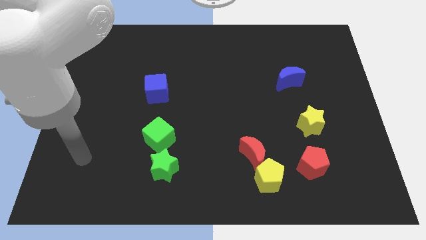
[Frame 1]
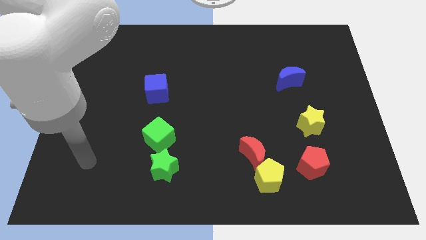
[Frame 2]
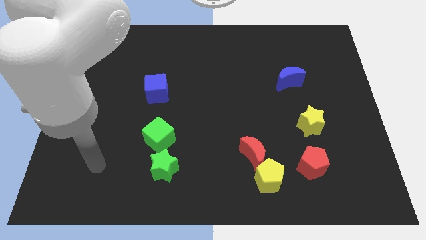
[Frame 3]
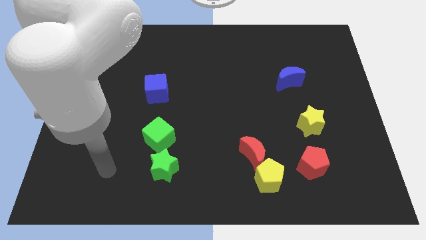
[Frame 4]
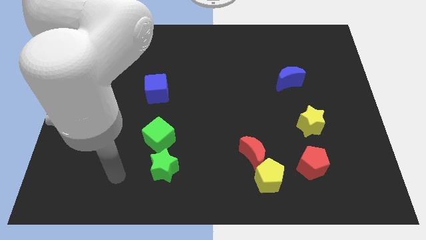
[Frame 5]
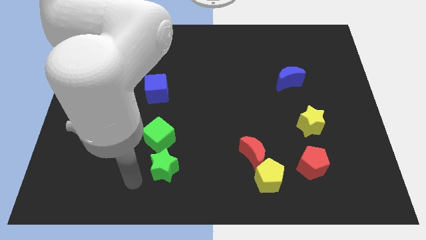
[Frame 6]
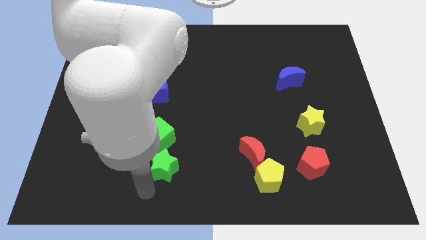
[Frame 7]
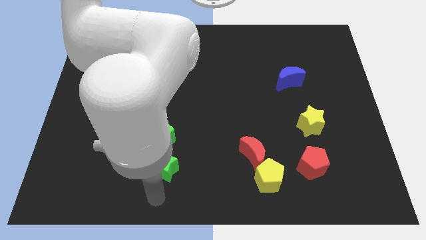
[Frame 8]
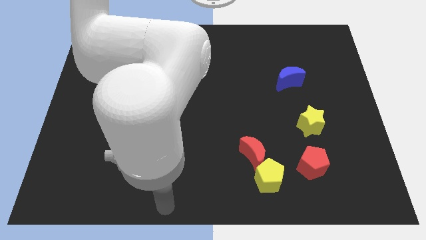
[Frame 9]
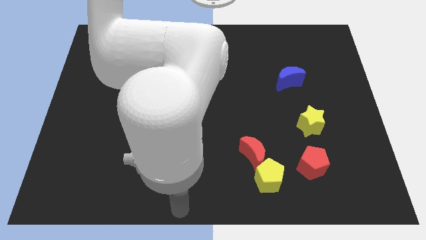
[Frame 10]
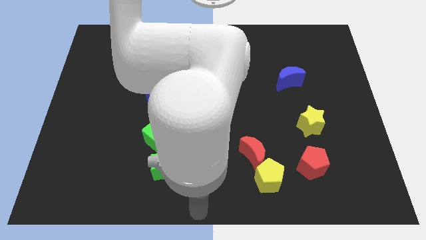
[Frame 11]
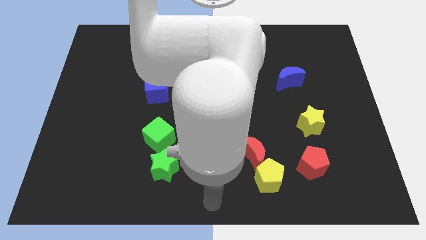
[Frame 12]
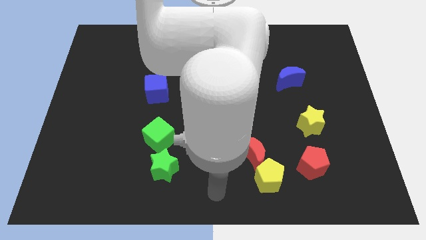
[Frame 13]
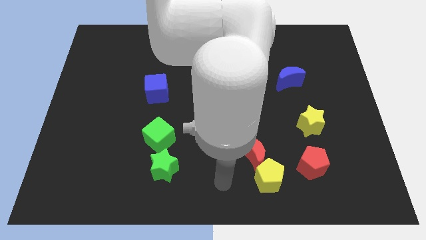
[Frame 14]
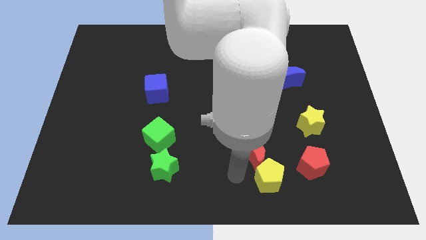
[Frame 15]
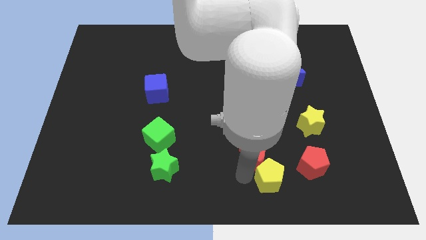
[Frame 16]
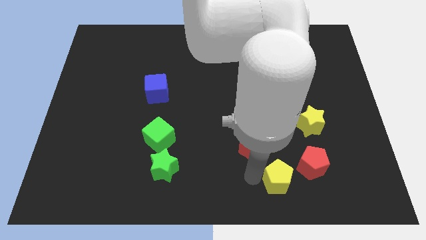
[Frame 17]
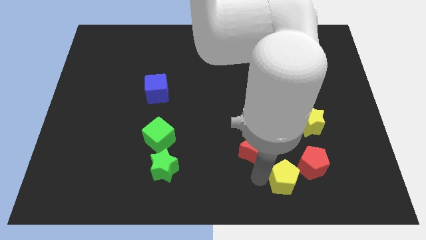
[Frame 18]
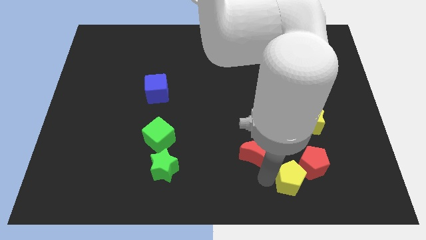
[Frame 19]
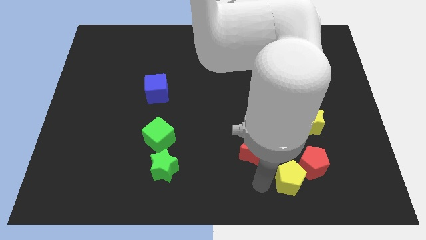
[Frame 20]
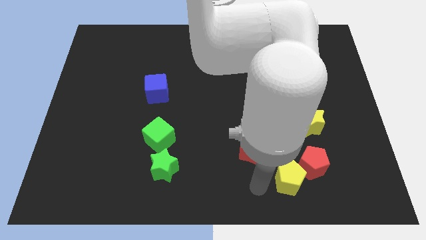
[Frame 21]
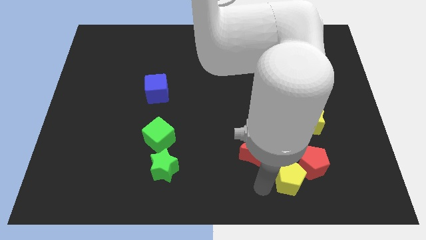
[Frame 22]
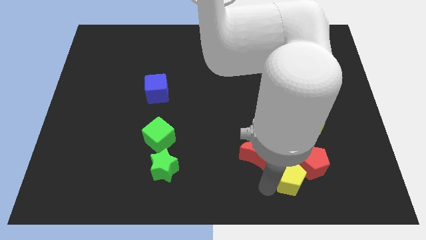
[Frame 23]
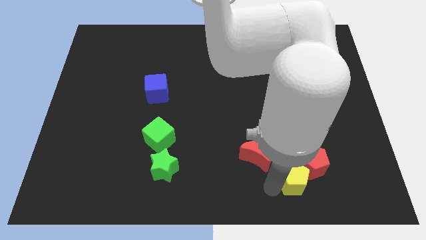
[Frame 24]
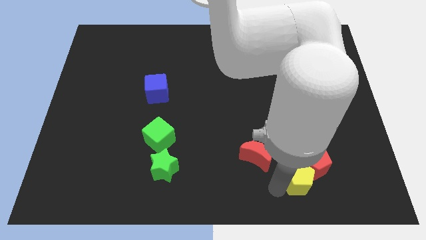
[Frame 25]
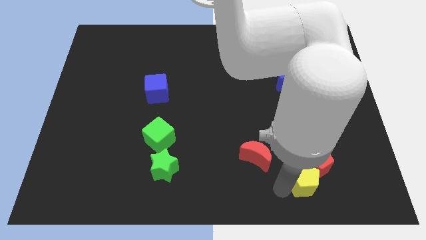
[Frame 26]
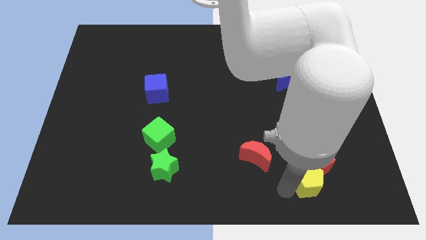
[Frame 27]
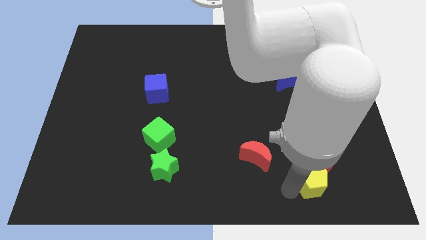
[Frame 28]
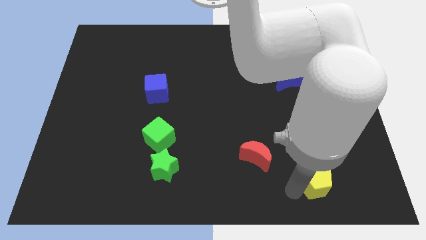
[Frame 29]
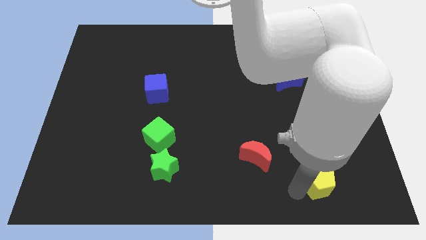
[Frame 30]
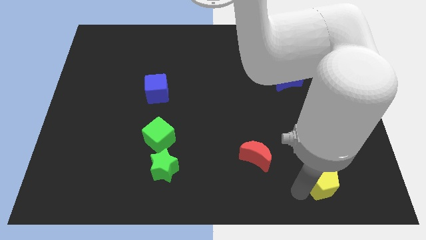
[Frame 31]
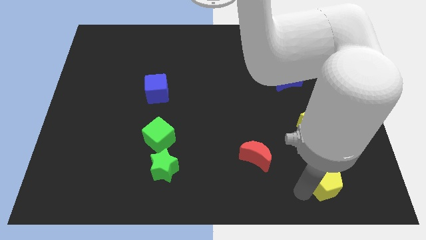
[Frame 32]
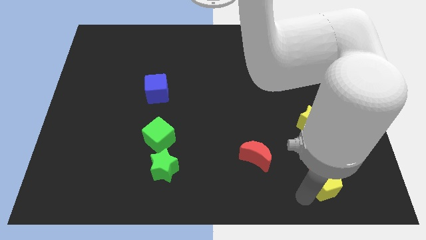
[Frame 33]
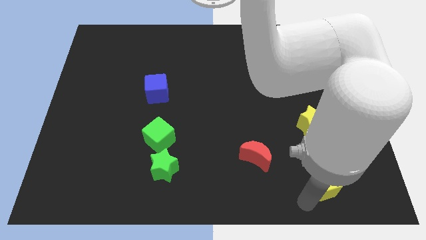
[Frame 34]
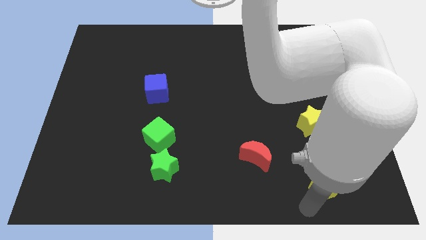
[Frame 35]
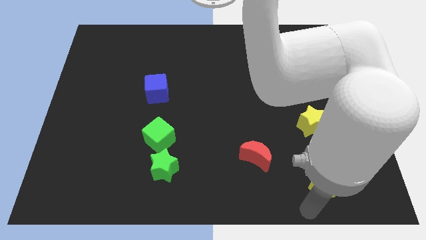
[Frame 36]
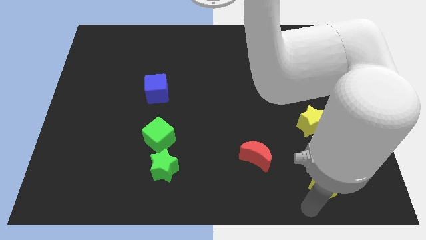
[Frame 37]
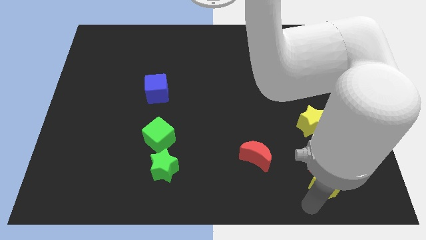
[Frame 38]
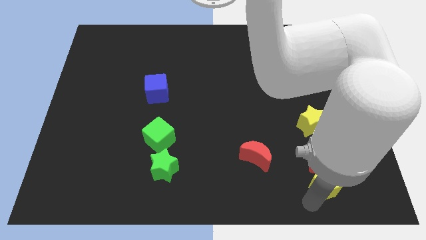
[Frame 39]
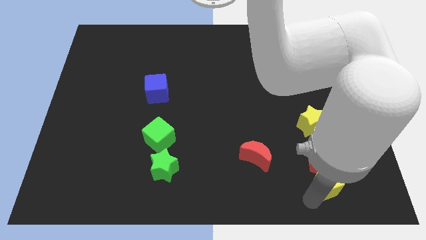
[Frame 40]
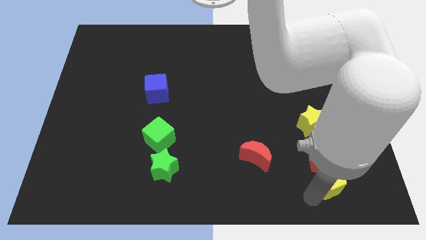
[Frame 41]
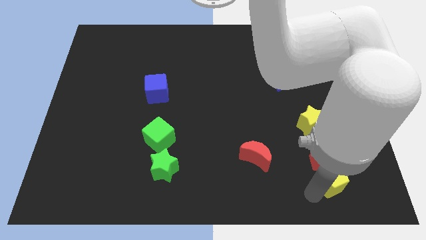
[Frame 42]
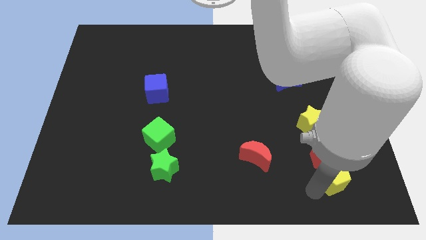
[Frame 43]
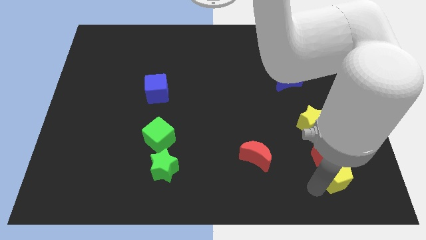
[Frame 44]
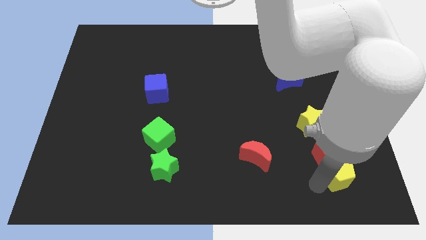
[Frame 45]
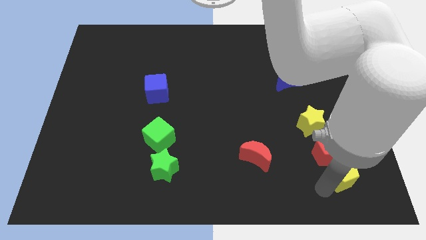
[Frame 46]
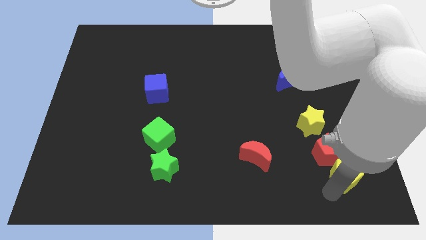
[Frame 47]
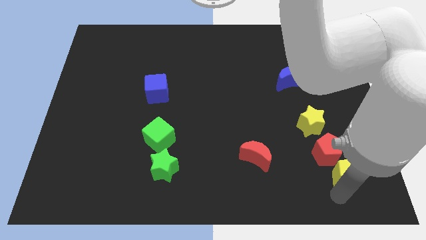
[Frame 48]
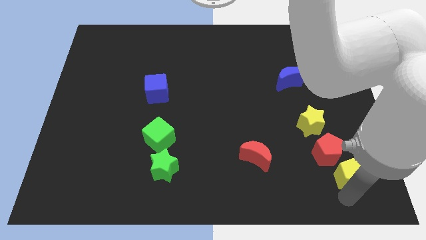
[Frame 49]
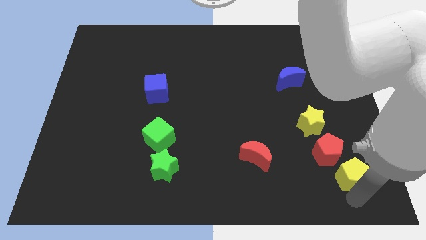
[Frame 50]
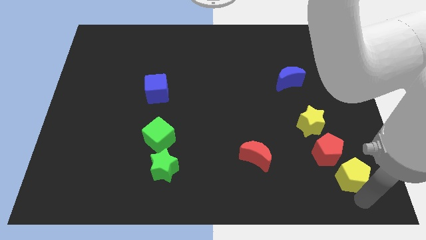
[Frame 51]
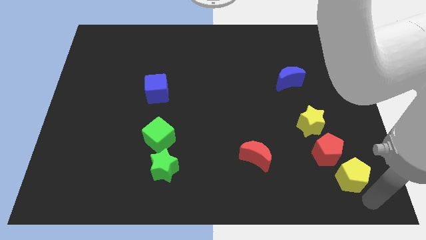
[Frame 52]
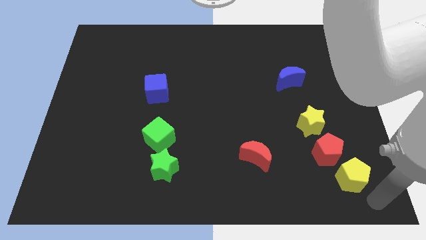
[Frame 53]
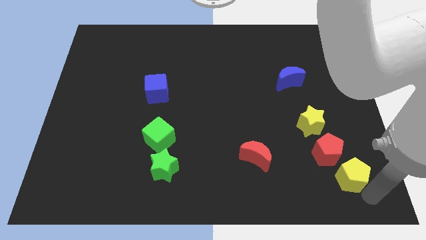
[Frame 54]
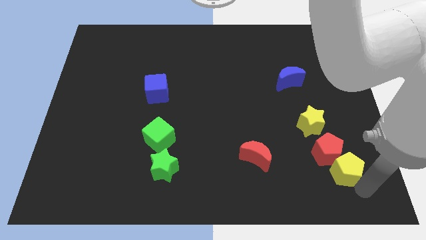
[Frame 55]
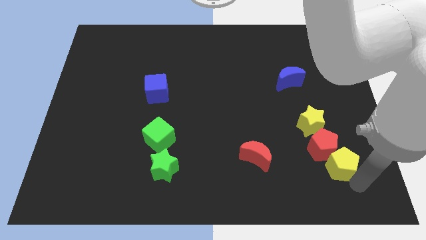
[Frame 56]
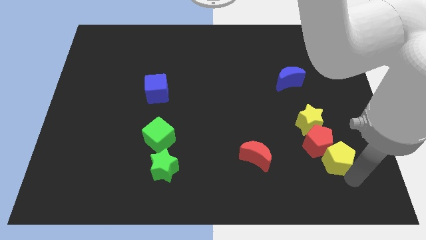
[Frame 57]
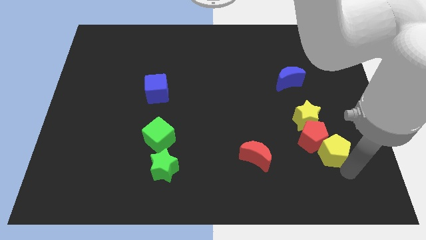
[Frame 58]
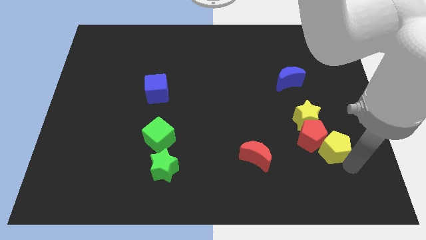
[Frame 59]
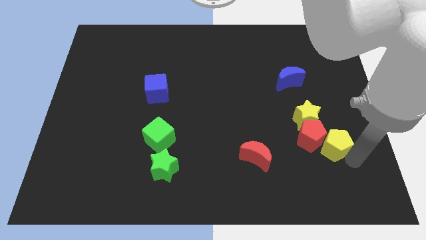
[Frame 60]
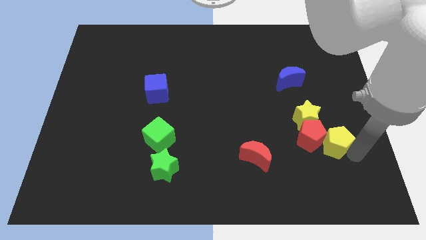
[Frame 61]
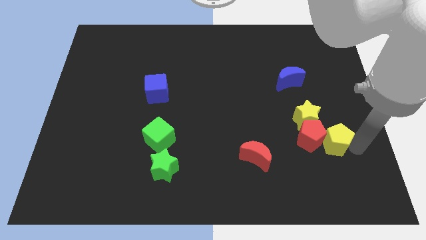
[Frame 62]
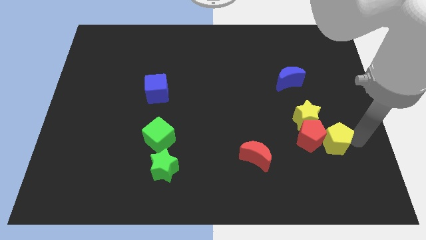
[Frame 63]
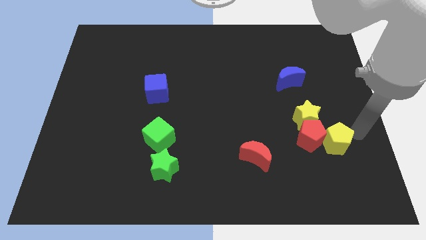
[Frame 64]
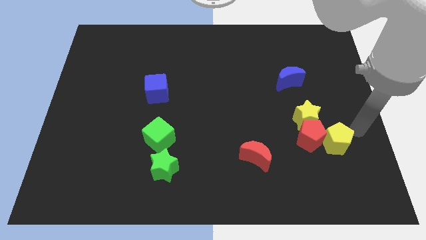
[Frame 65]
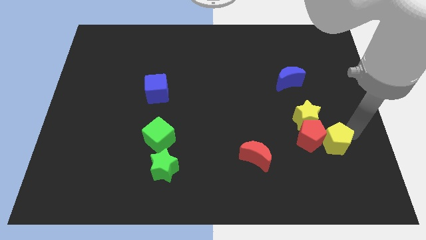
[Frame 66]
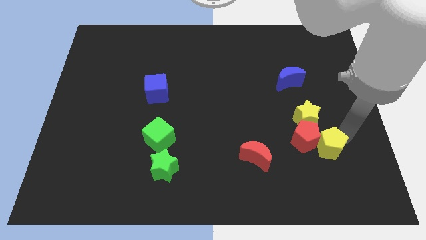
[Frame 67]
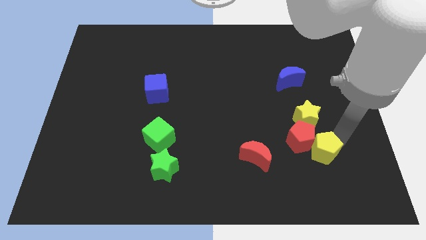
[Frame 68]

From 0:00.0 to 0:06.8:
slide the yellow pentagon right of the red moon

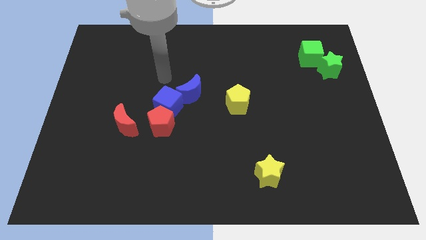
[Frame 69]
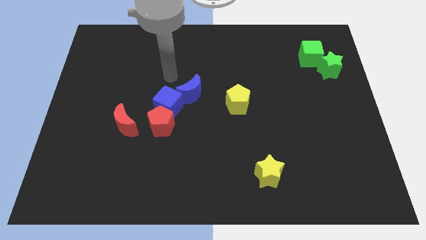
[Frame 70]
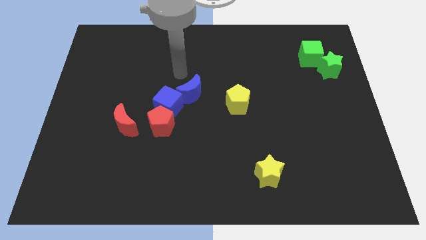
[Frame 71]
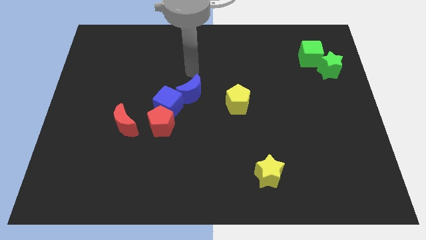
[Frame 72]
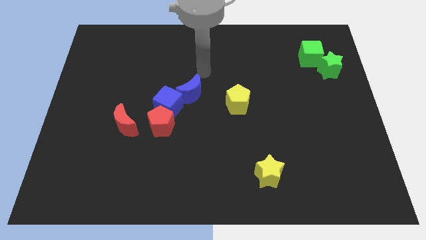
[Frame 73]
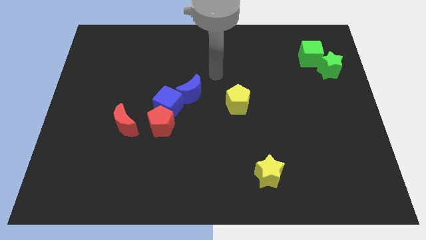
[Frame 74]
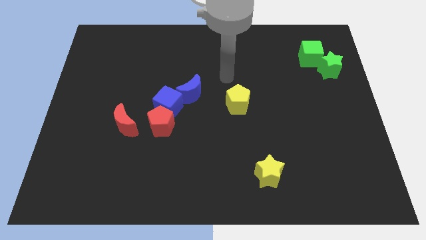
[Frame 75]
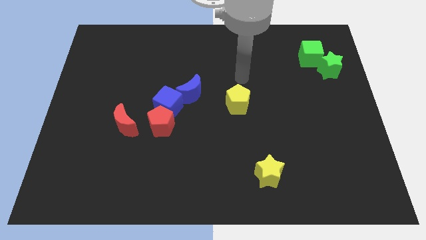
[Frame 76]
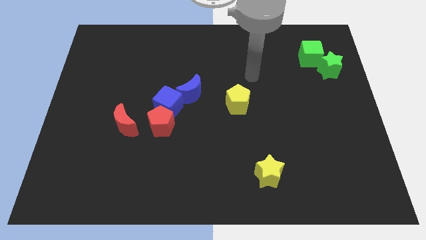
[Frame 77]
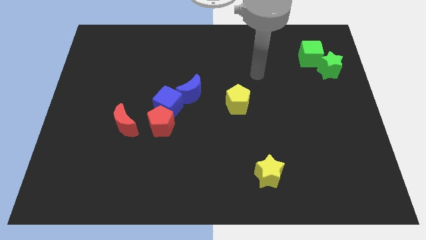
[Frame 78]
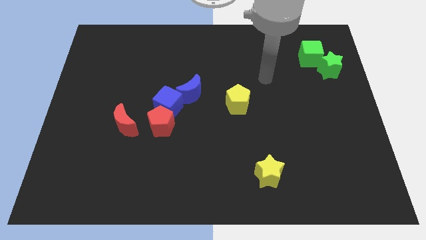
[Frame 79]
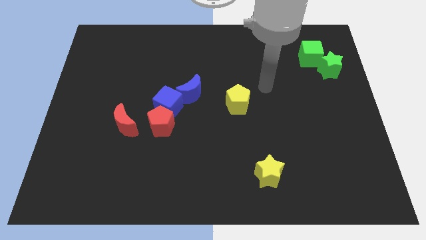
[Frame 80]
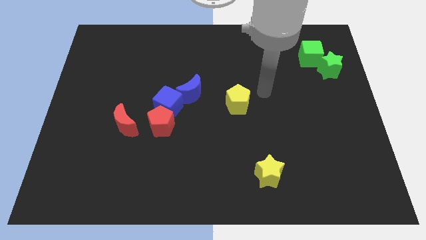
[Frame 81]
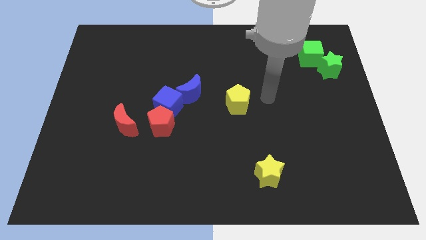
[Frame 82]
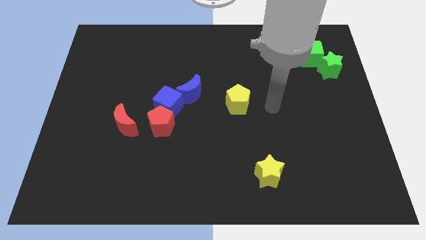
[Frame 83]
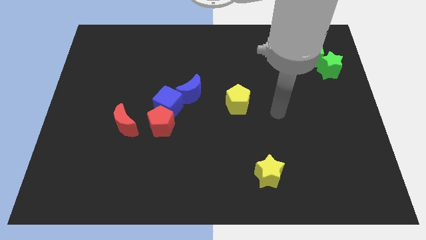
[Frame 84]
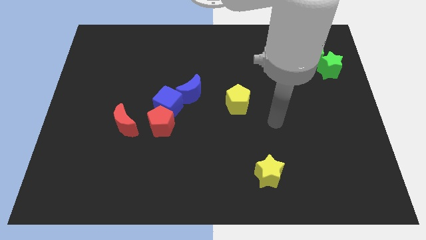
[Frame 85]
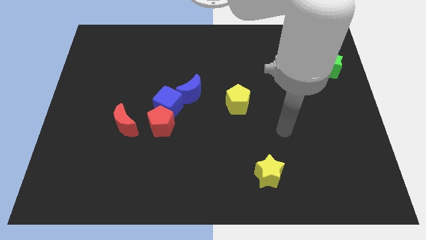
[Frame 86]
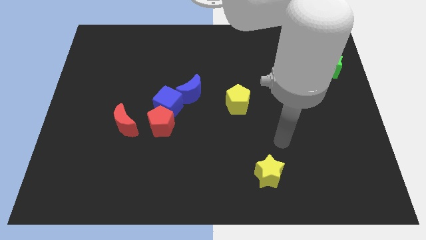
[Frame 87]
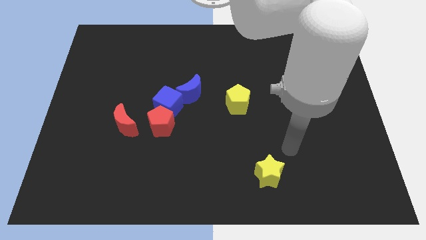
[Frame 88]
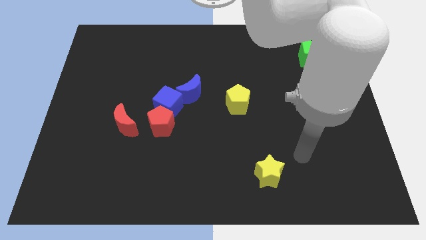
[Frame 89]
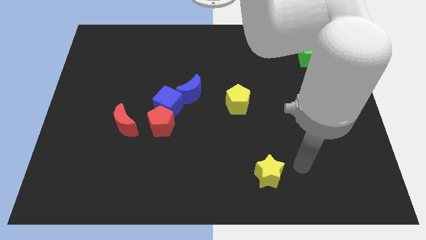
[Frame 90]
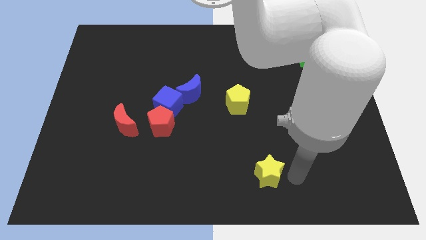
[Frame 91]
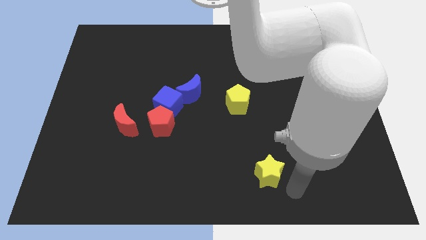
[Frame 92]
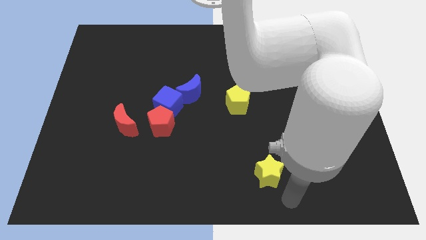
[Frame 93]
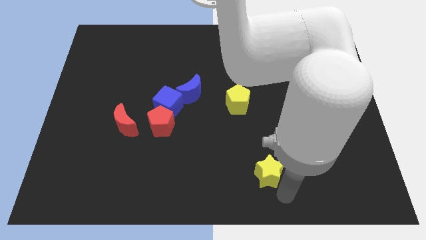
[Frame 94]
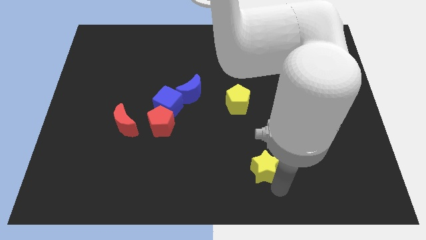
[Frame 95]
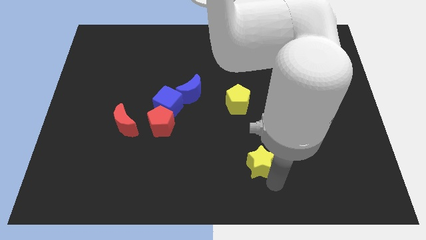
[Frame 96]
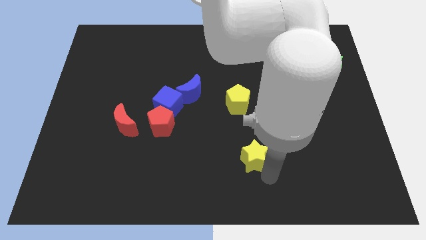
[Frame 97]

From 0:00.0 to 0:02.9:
put the yellow star to the bottom side of the yellow pentagon
